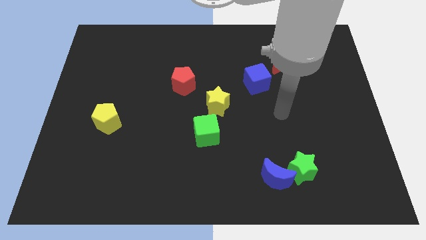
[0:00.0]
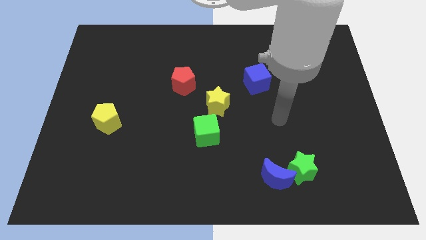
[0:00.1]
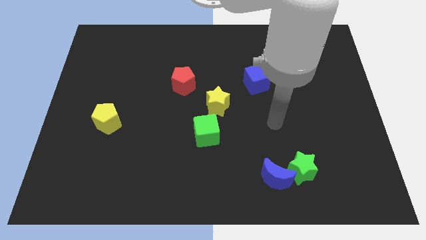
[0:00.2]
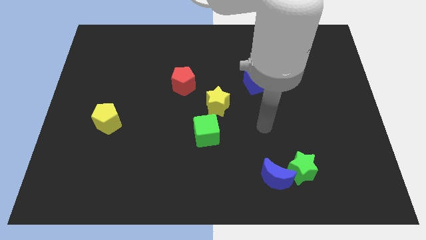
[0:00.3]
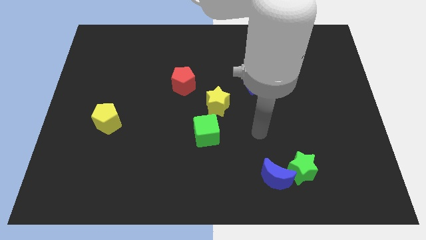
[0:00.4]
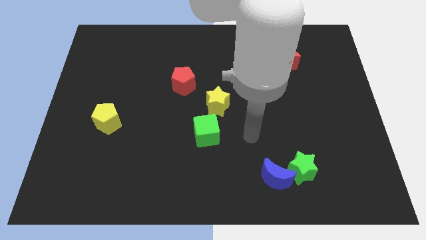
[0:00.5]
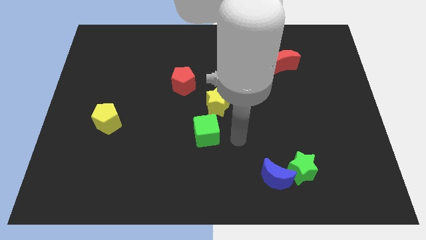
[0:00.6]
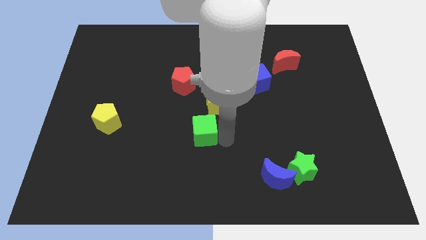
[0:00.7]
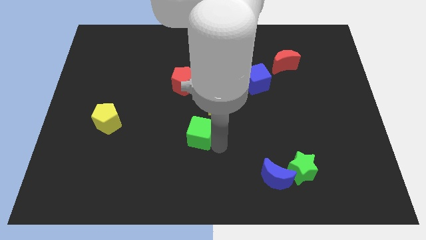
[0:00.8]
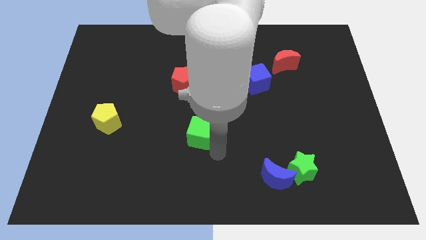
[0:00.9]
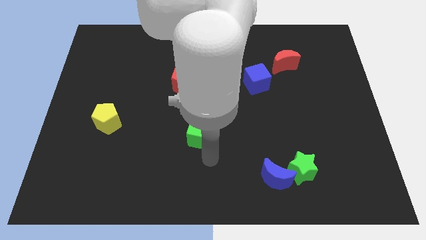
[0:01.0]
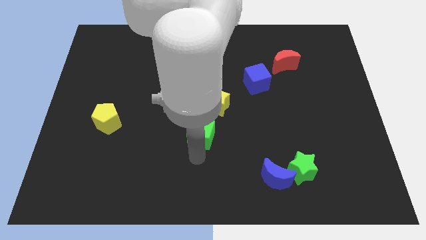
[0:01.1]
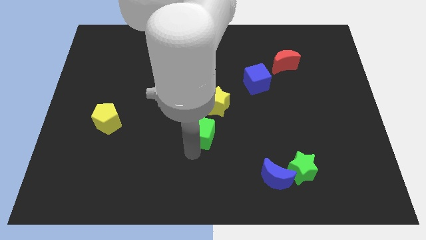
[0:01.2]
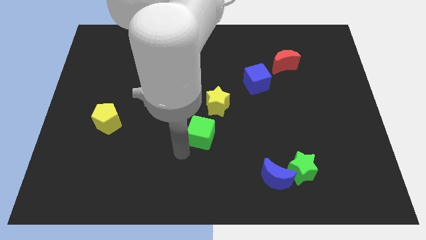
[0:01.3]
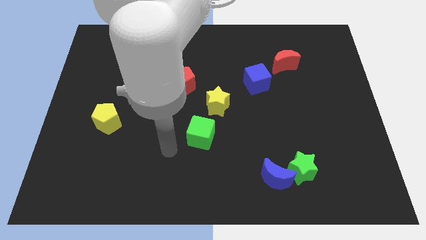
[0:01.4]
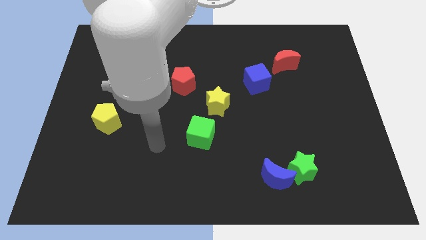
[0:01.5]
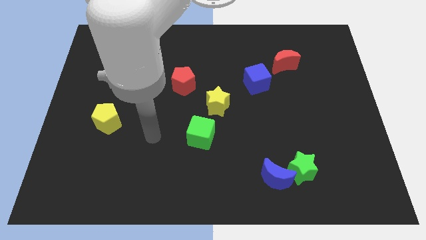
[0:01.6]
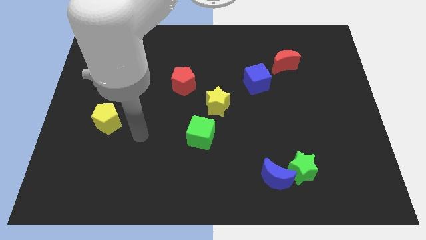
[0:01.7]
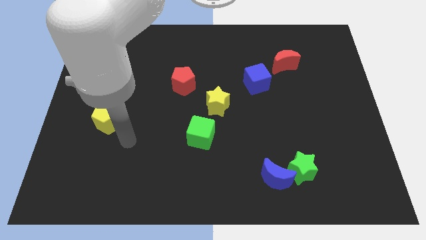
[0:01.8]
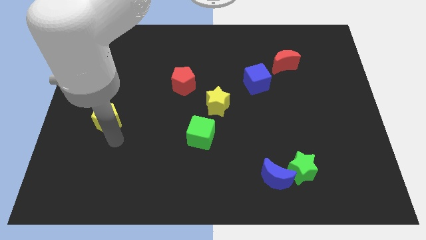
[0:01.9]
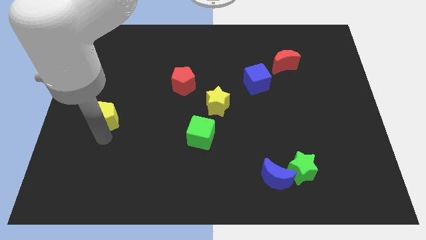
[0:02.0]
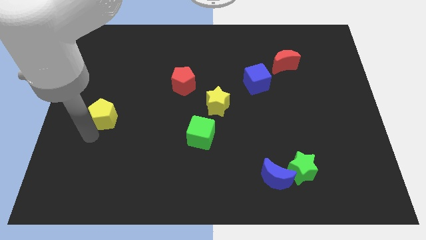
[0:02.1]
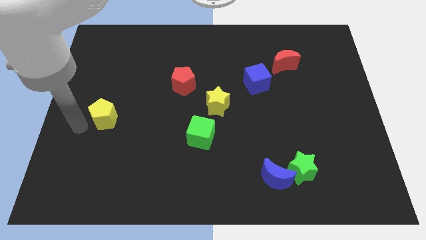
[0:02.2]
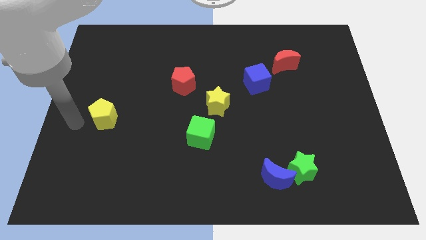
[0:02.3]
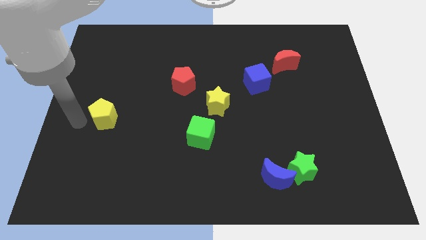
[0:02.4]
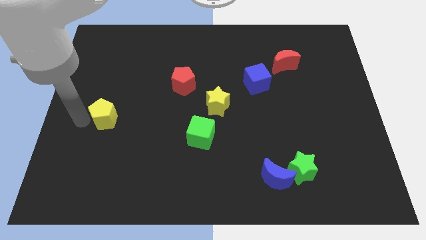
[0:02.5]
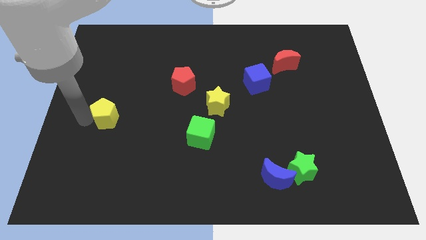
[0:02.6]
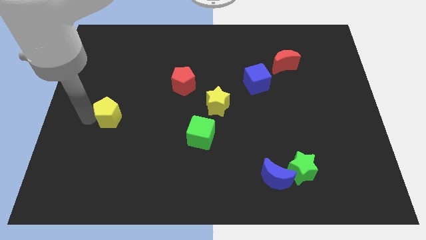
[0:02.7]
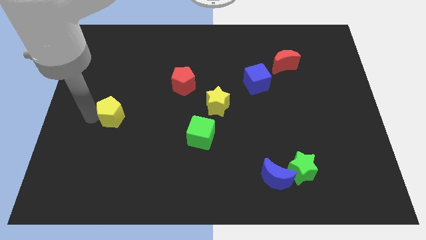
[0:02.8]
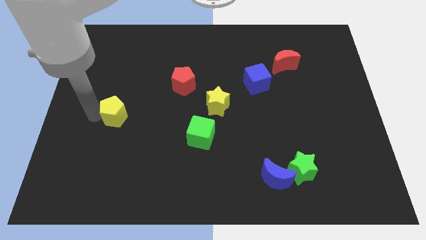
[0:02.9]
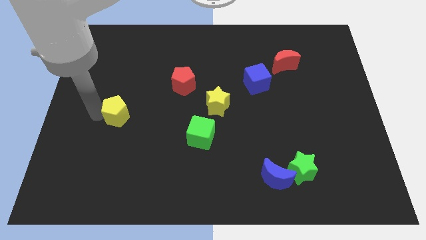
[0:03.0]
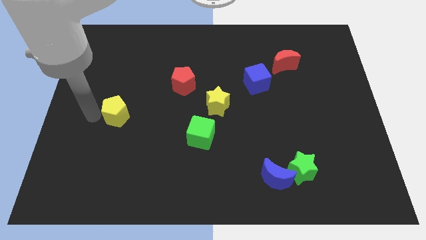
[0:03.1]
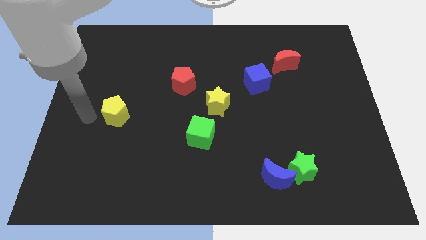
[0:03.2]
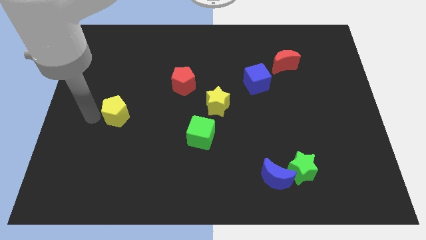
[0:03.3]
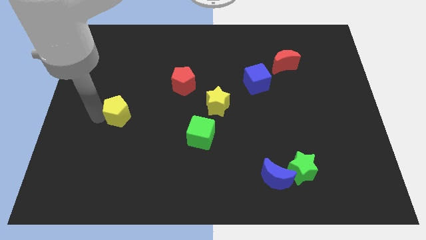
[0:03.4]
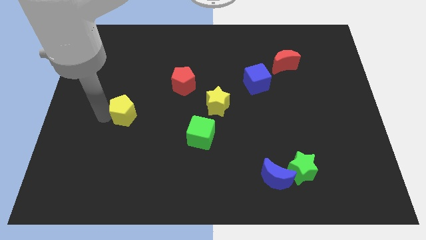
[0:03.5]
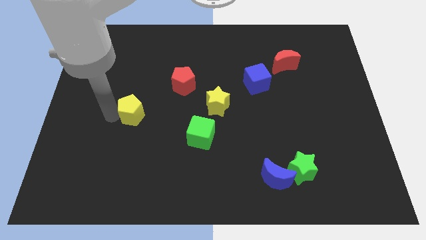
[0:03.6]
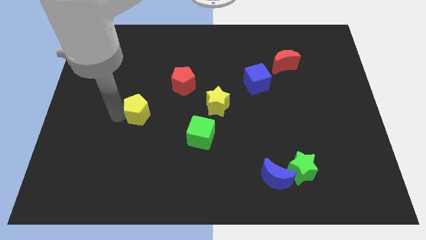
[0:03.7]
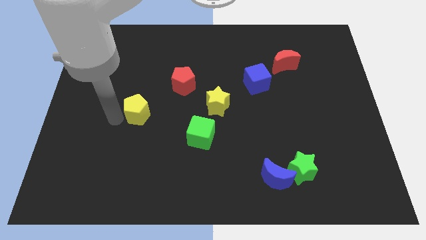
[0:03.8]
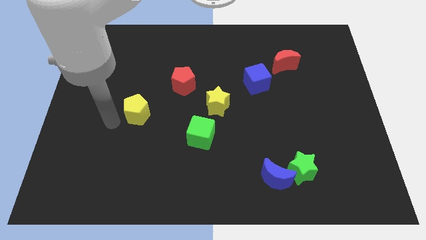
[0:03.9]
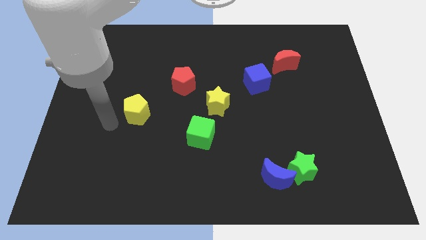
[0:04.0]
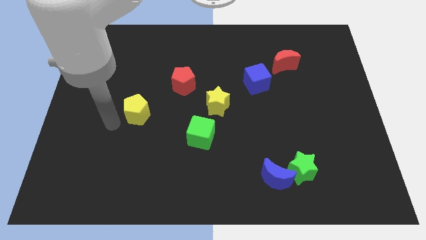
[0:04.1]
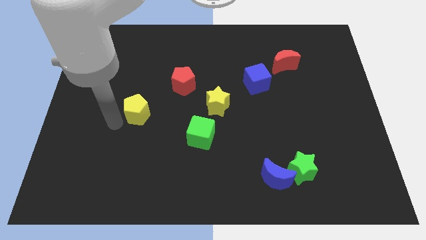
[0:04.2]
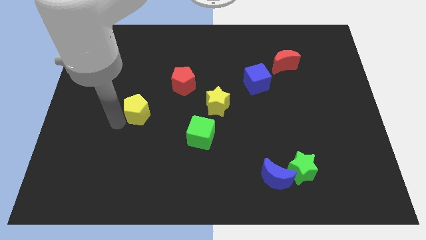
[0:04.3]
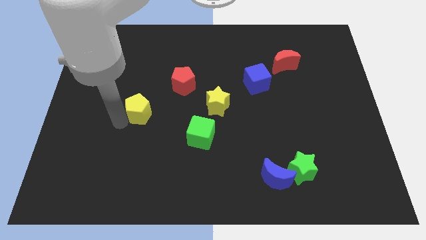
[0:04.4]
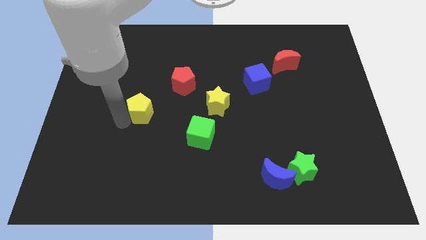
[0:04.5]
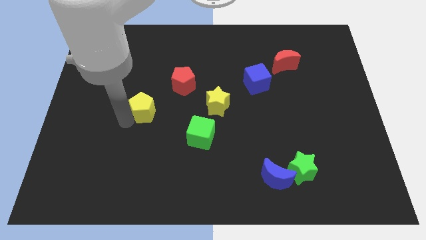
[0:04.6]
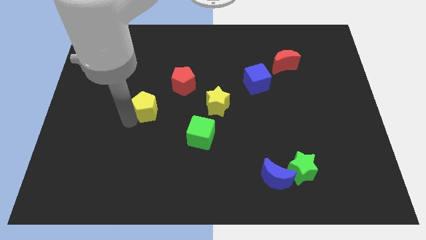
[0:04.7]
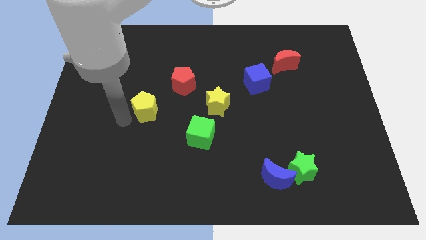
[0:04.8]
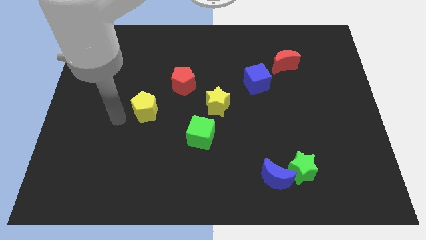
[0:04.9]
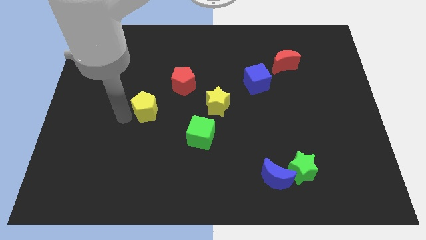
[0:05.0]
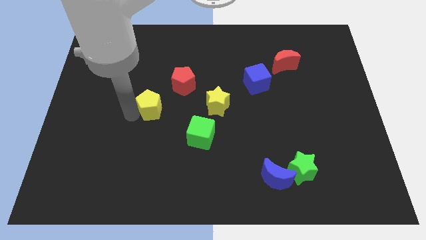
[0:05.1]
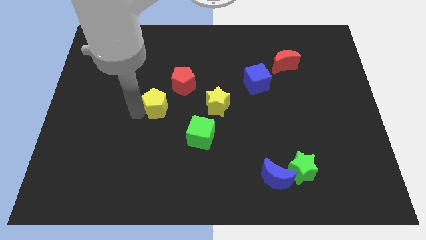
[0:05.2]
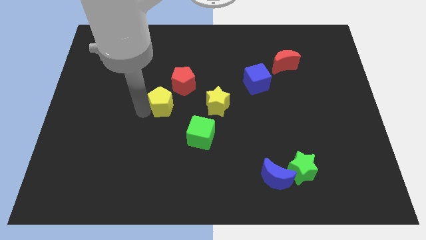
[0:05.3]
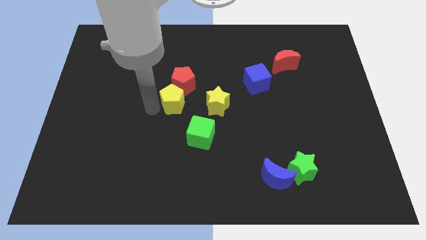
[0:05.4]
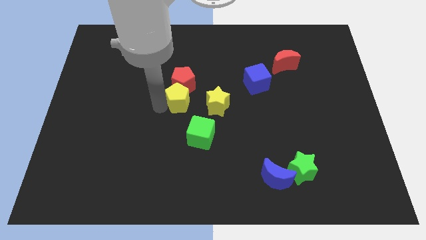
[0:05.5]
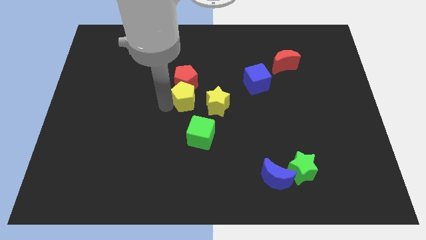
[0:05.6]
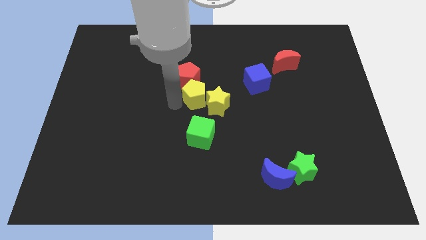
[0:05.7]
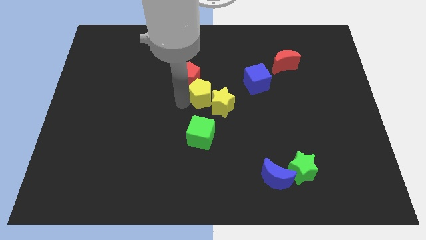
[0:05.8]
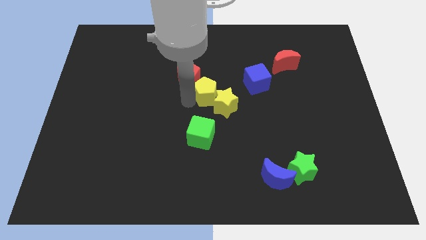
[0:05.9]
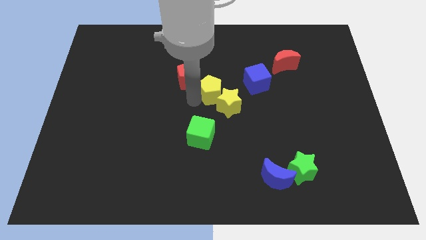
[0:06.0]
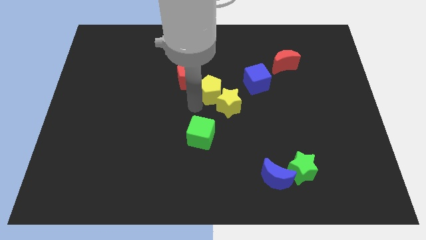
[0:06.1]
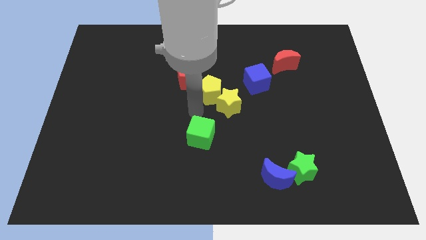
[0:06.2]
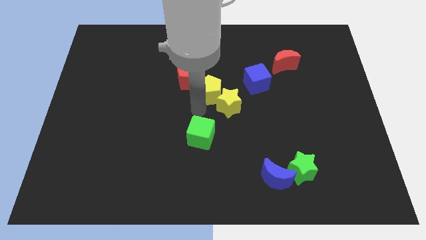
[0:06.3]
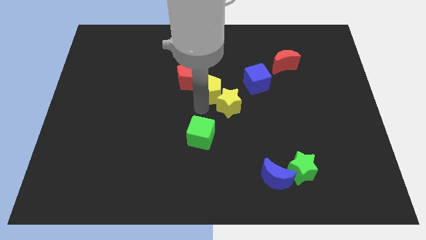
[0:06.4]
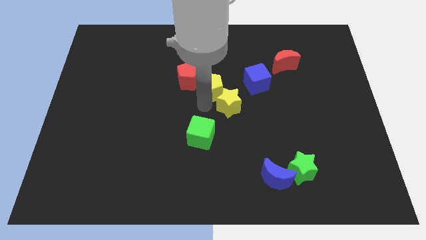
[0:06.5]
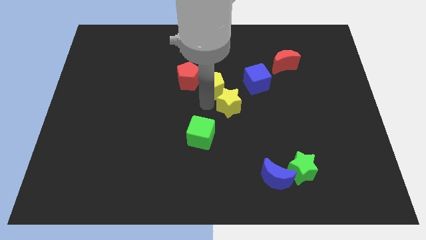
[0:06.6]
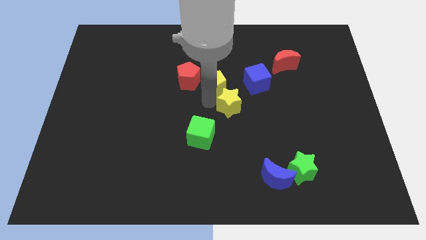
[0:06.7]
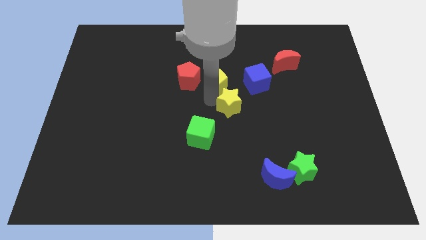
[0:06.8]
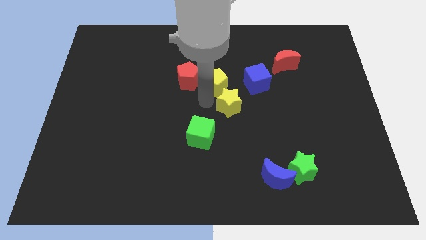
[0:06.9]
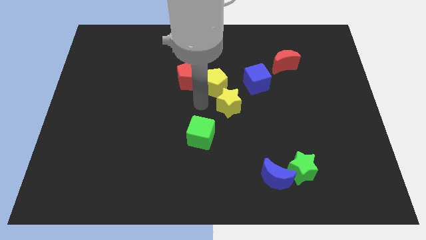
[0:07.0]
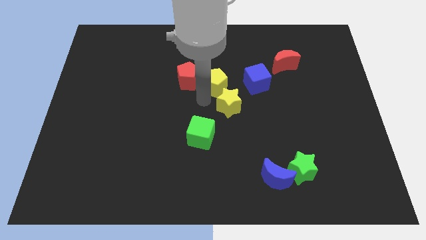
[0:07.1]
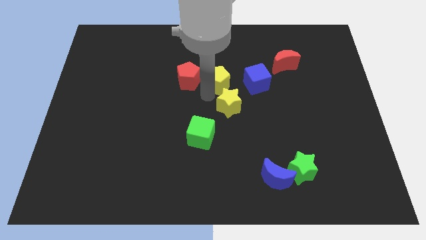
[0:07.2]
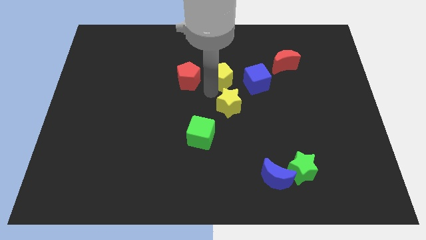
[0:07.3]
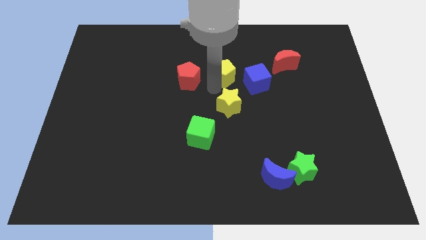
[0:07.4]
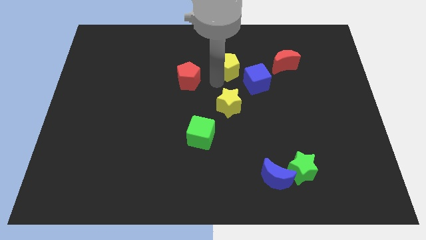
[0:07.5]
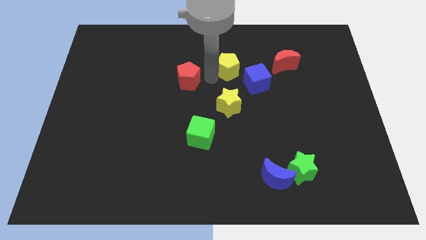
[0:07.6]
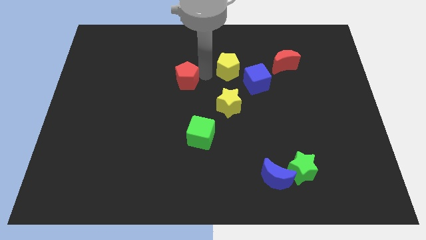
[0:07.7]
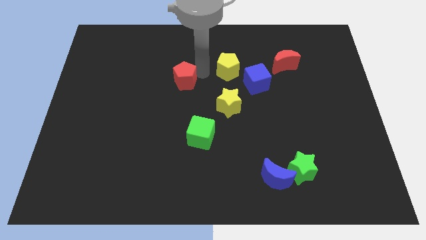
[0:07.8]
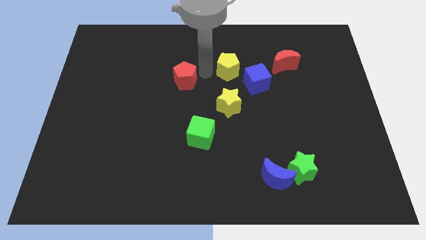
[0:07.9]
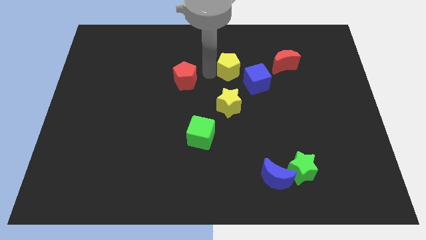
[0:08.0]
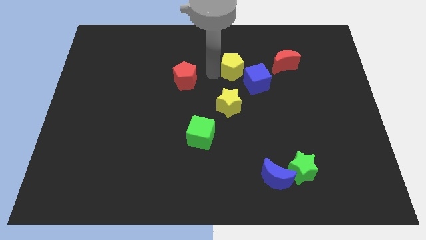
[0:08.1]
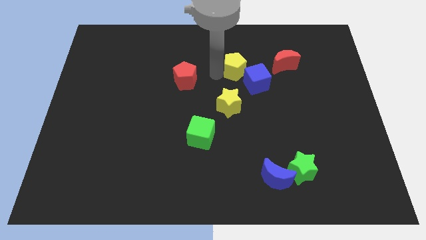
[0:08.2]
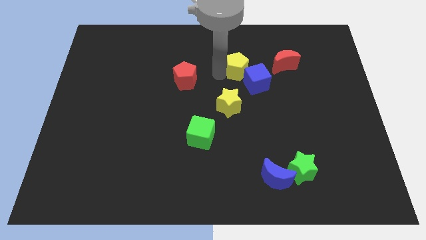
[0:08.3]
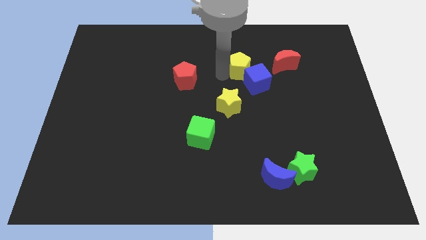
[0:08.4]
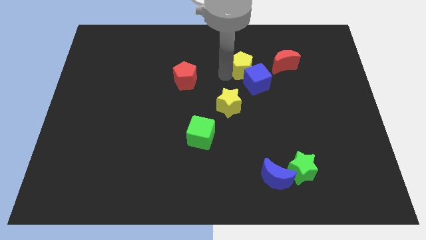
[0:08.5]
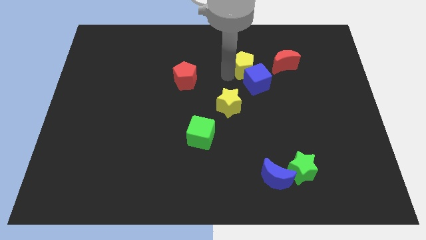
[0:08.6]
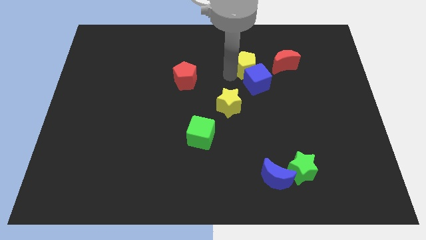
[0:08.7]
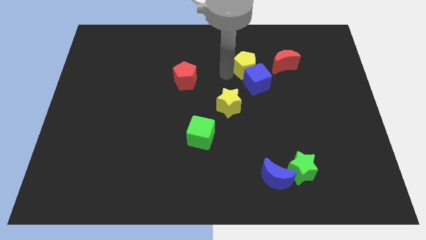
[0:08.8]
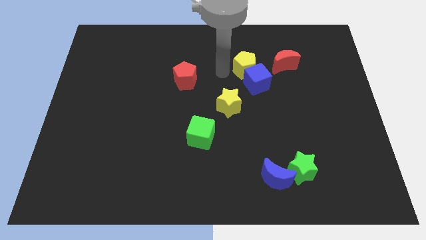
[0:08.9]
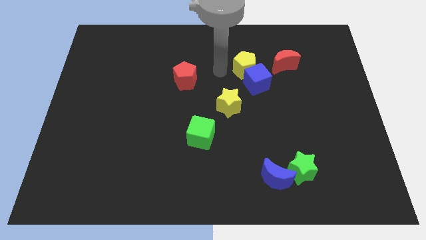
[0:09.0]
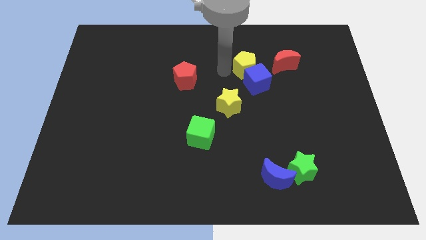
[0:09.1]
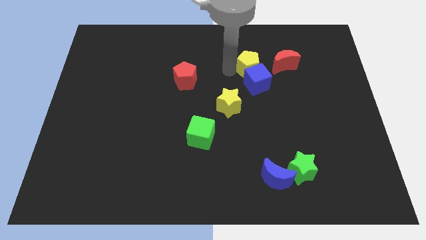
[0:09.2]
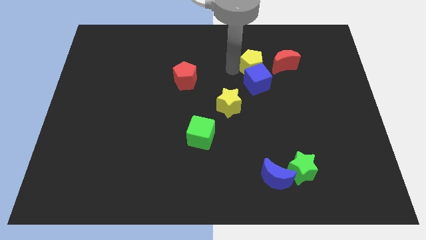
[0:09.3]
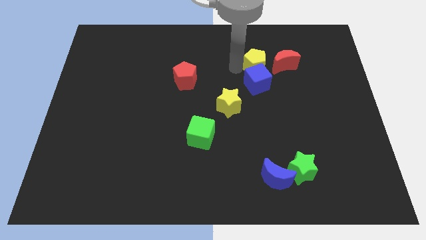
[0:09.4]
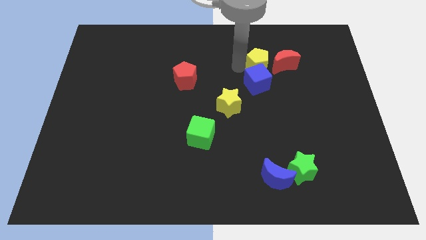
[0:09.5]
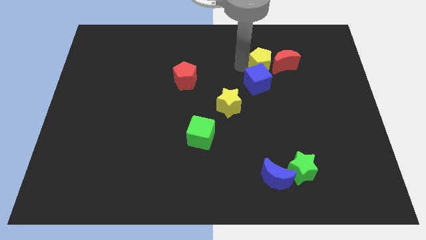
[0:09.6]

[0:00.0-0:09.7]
move the yellow pentagon to the red moon
